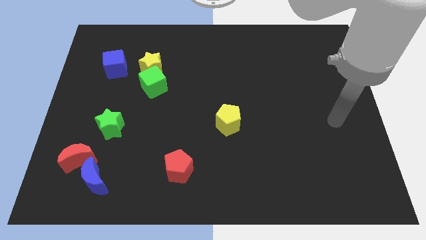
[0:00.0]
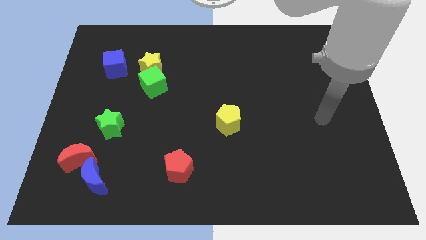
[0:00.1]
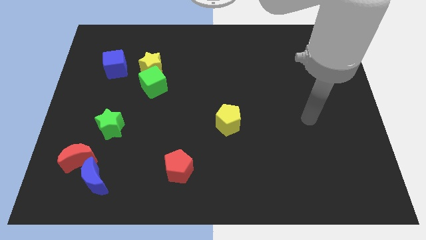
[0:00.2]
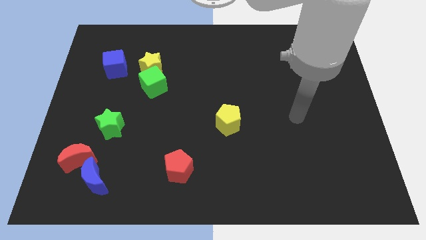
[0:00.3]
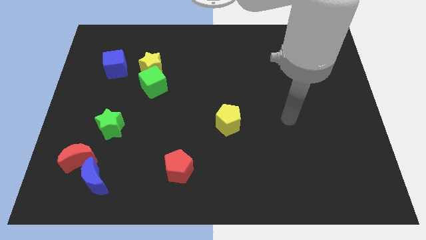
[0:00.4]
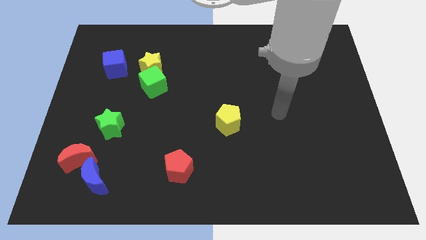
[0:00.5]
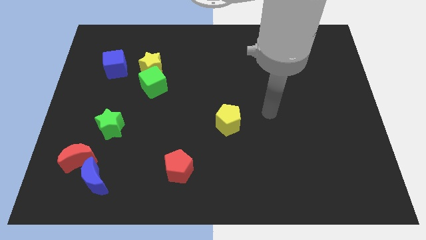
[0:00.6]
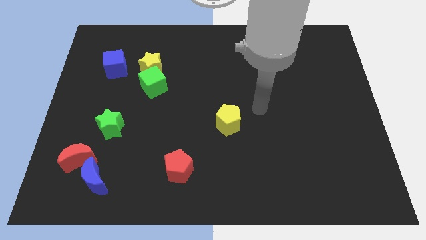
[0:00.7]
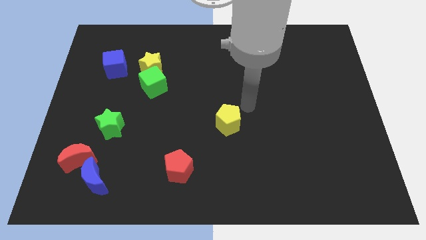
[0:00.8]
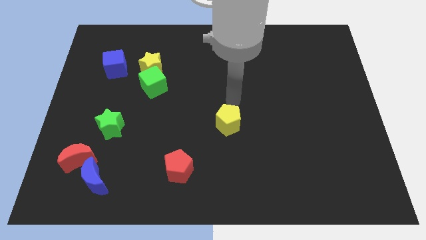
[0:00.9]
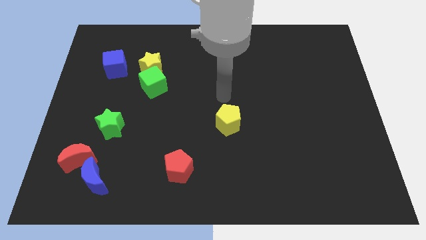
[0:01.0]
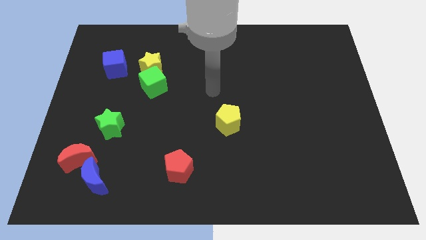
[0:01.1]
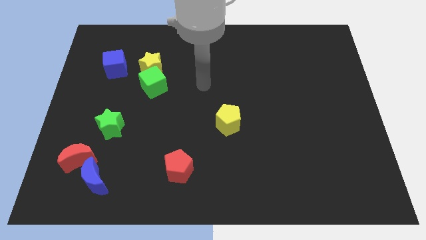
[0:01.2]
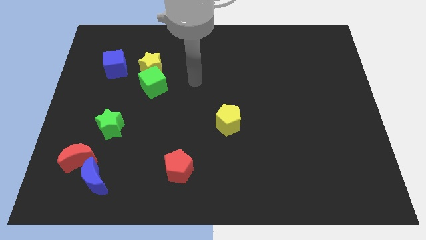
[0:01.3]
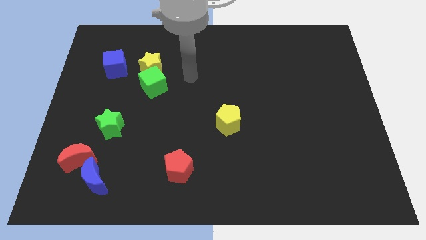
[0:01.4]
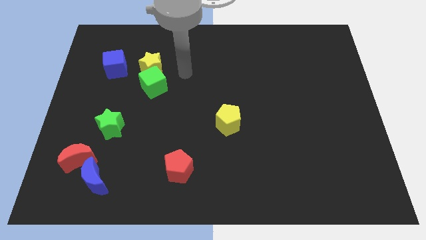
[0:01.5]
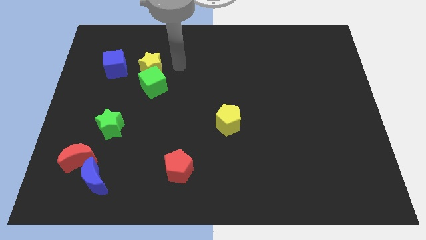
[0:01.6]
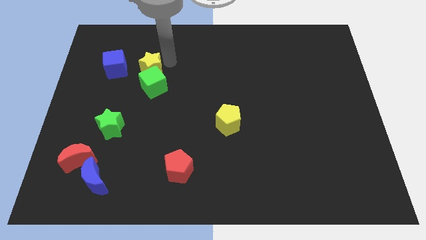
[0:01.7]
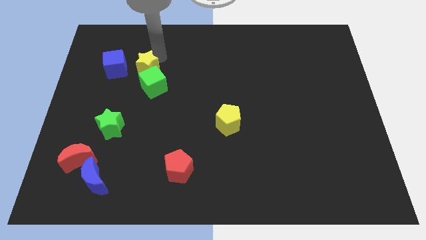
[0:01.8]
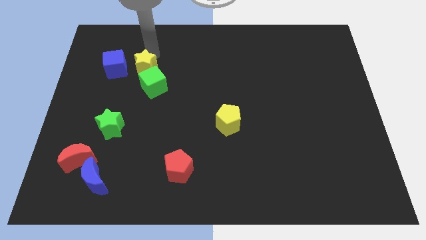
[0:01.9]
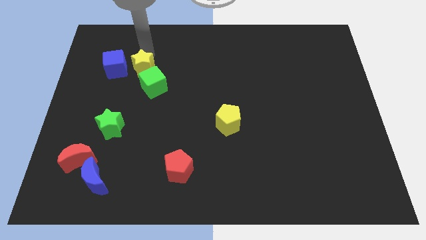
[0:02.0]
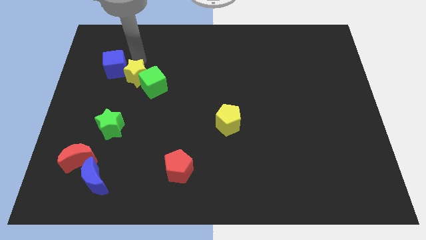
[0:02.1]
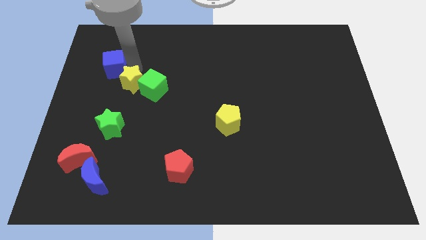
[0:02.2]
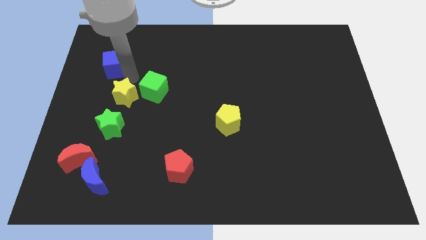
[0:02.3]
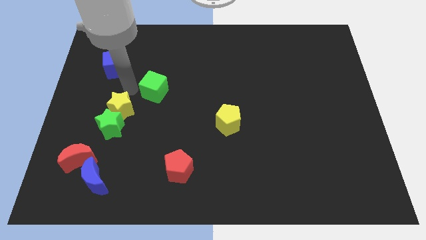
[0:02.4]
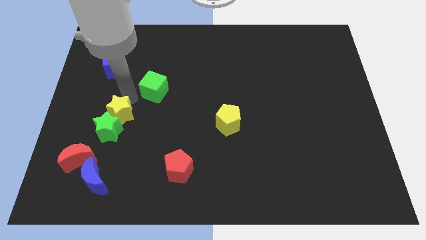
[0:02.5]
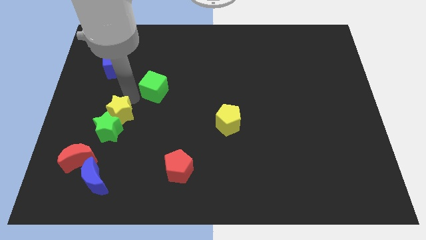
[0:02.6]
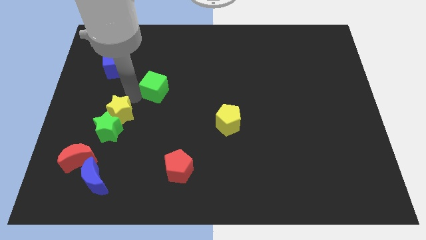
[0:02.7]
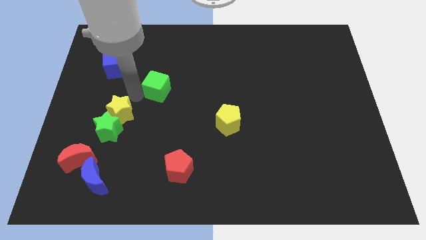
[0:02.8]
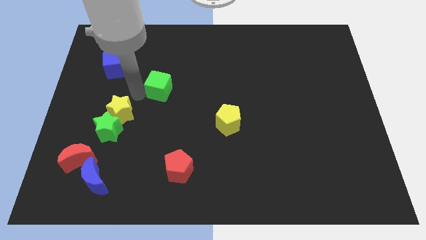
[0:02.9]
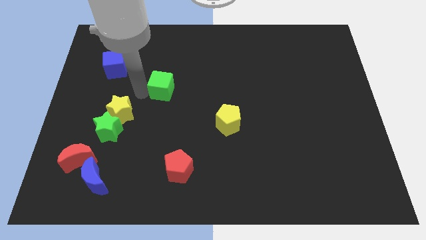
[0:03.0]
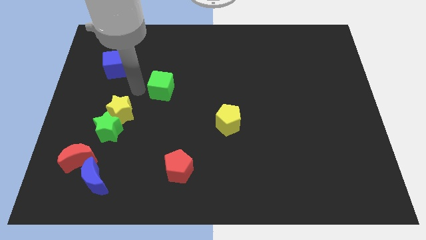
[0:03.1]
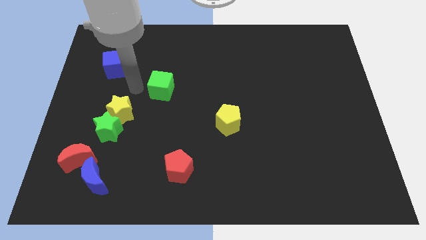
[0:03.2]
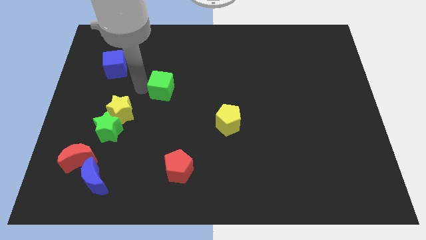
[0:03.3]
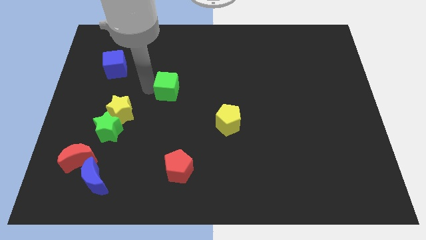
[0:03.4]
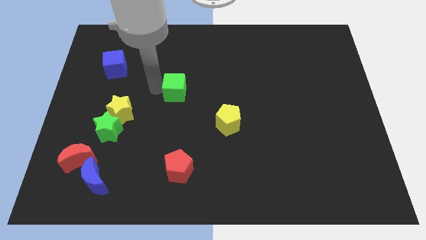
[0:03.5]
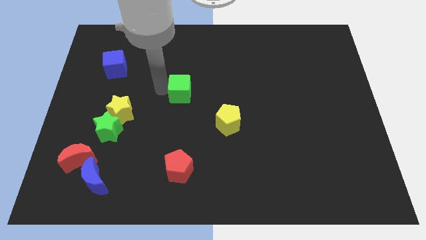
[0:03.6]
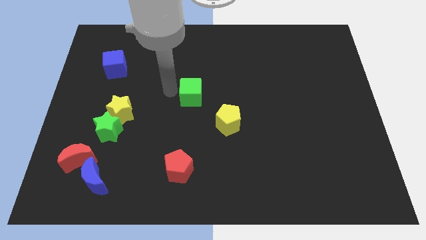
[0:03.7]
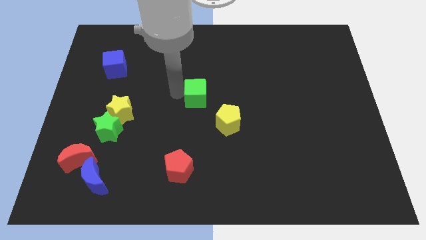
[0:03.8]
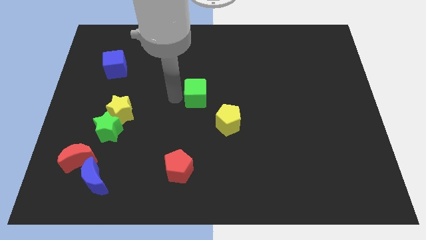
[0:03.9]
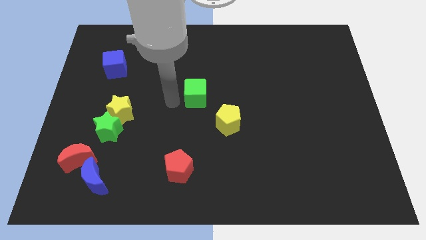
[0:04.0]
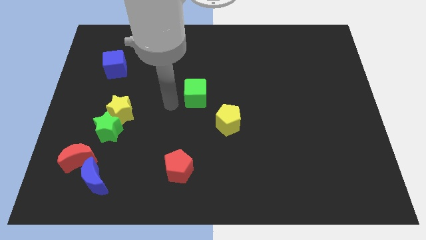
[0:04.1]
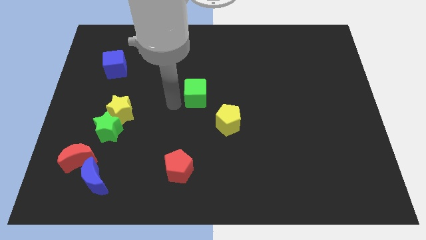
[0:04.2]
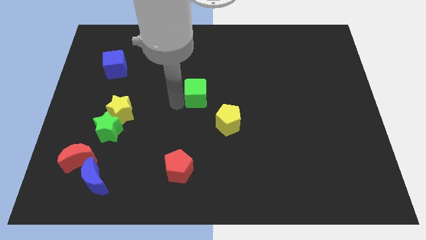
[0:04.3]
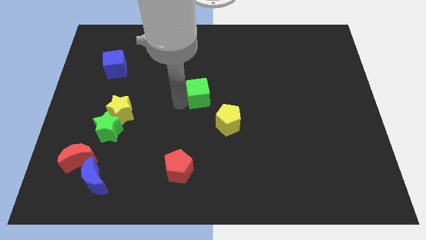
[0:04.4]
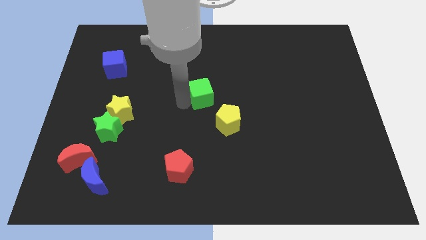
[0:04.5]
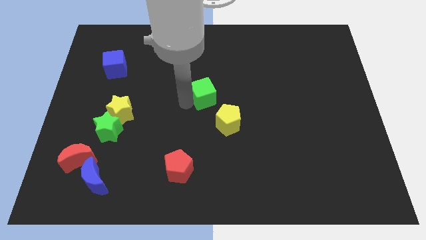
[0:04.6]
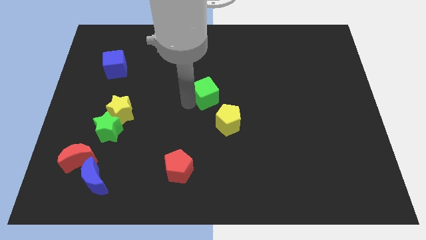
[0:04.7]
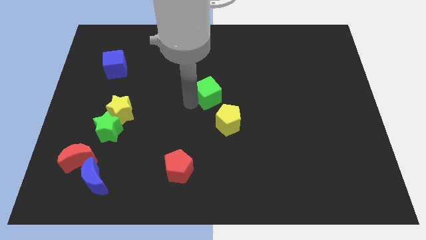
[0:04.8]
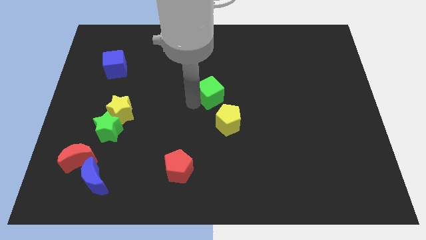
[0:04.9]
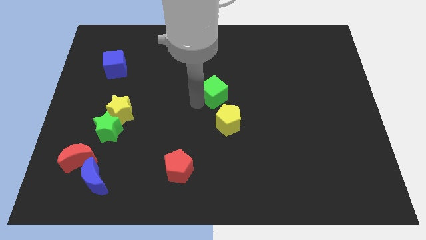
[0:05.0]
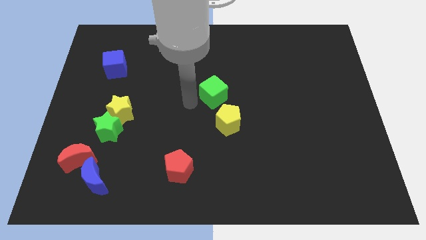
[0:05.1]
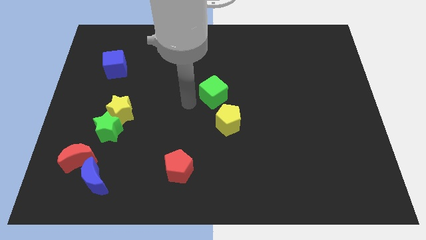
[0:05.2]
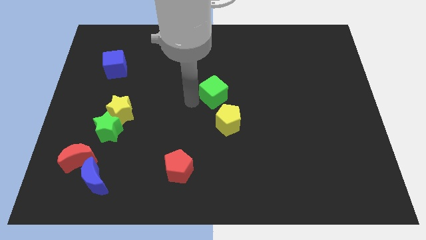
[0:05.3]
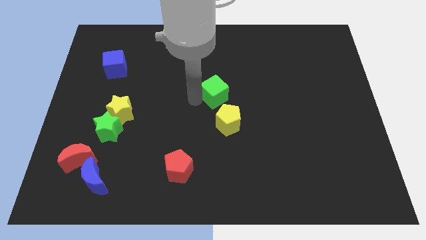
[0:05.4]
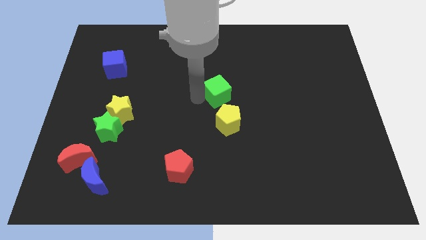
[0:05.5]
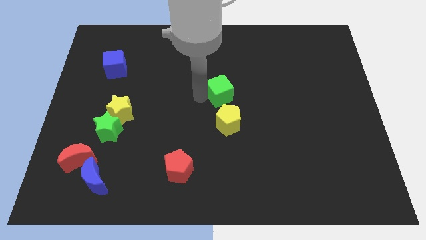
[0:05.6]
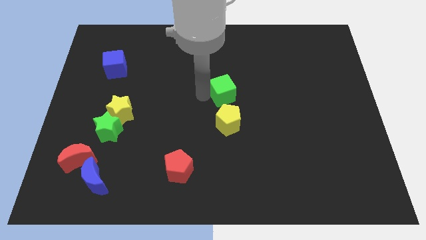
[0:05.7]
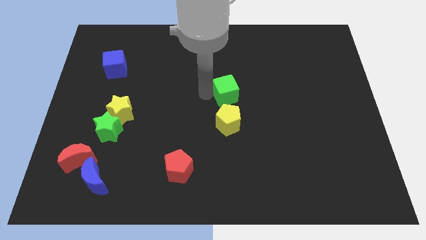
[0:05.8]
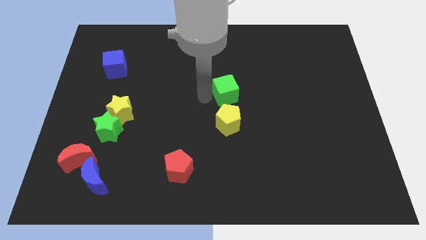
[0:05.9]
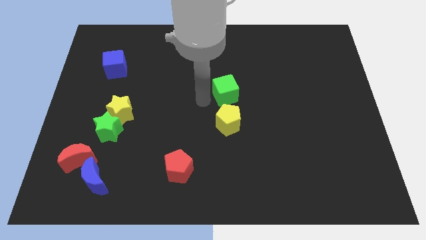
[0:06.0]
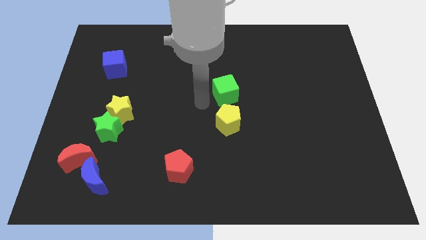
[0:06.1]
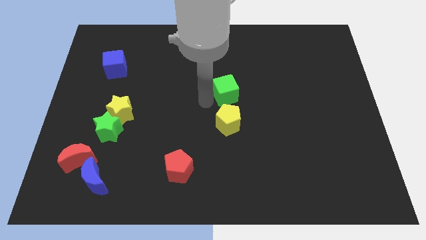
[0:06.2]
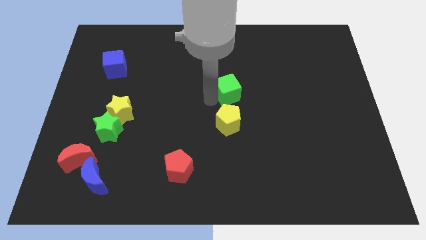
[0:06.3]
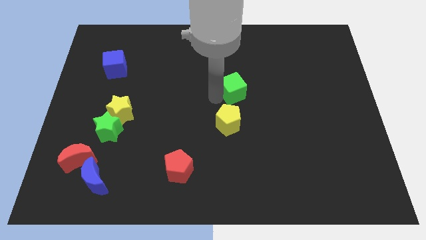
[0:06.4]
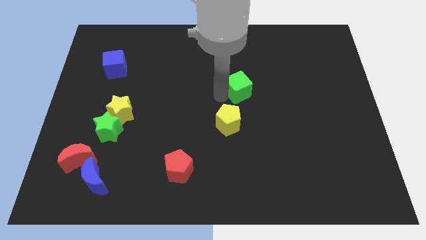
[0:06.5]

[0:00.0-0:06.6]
move the green cube right

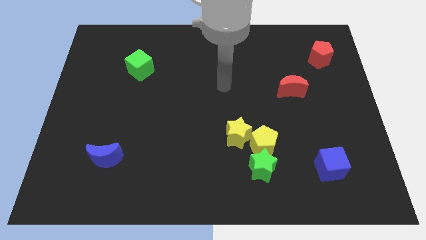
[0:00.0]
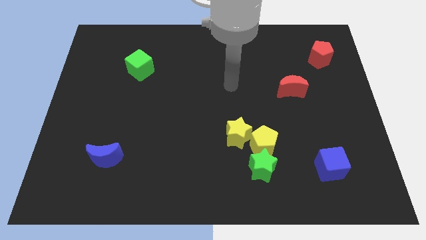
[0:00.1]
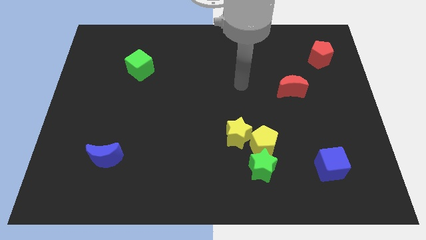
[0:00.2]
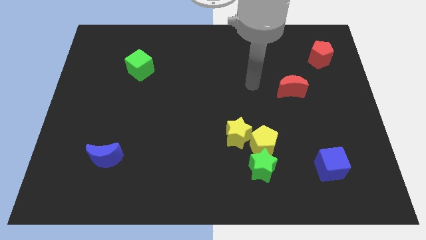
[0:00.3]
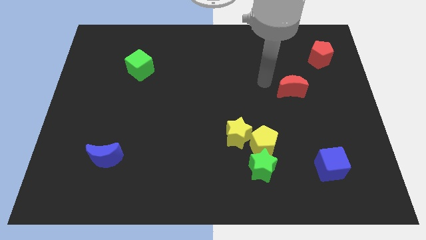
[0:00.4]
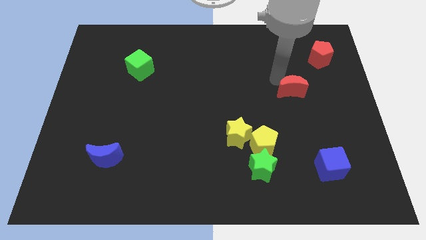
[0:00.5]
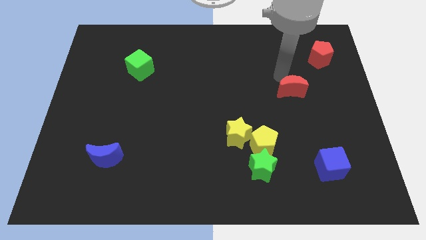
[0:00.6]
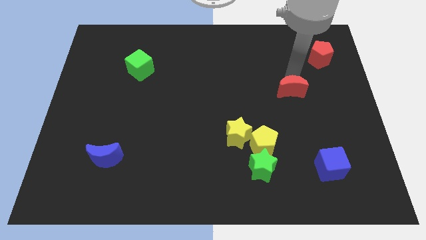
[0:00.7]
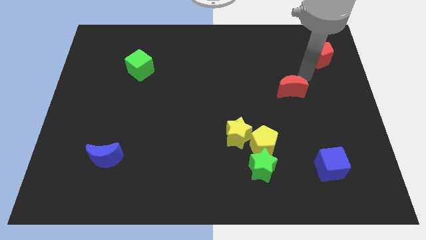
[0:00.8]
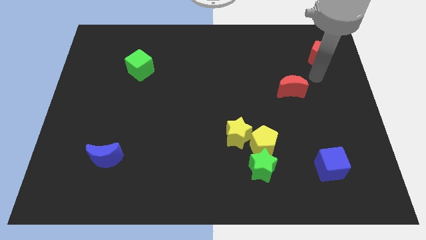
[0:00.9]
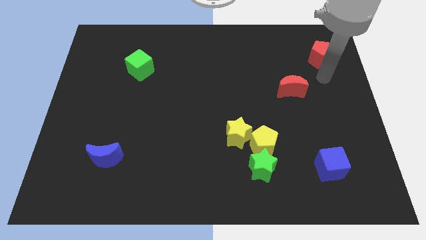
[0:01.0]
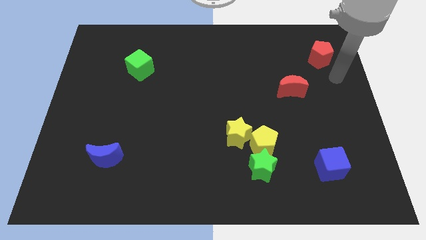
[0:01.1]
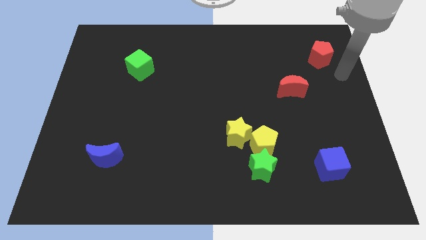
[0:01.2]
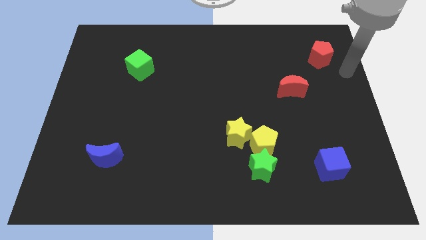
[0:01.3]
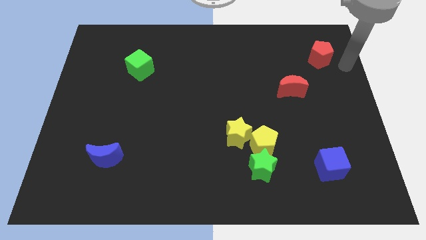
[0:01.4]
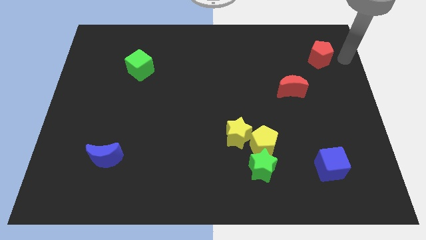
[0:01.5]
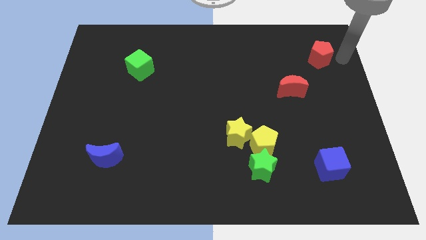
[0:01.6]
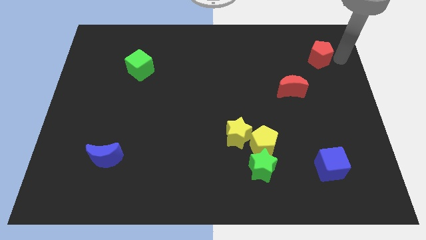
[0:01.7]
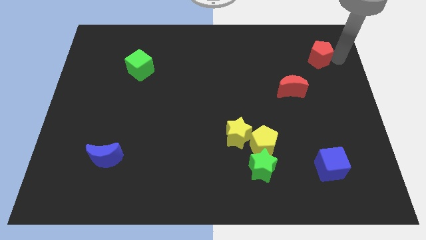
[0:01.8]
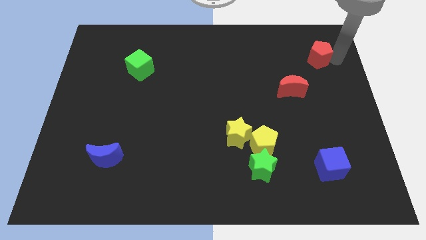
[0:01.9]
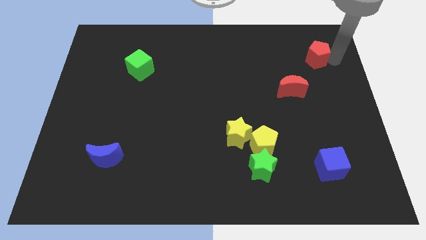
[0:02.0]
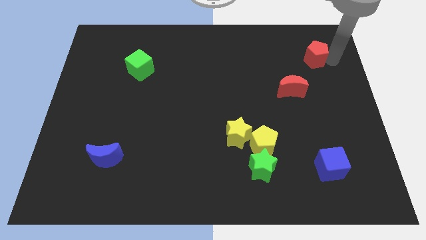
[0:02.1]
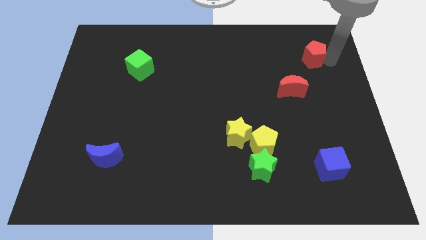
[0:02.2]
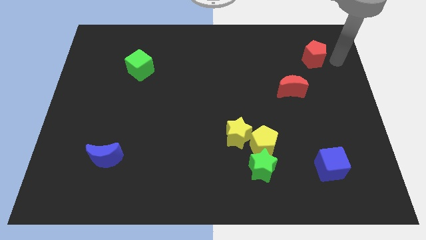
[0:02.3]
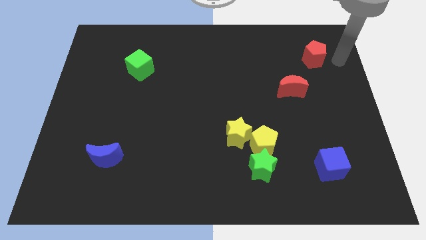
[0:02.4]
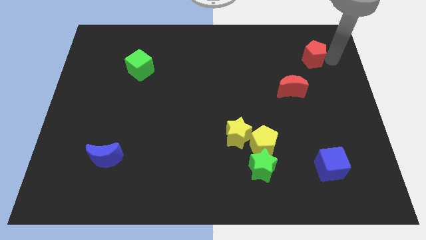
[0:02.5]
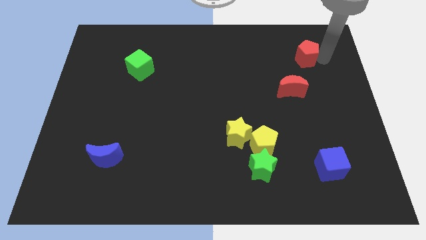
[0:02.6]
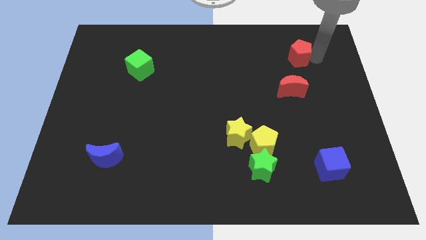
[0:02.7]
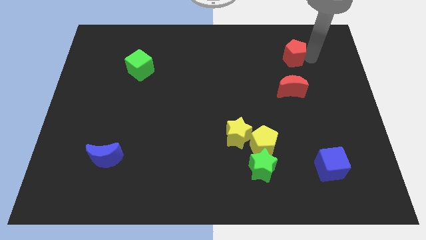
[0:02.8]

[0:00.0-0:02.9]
slightly slide the red pentagon to the left
